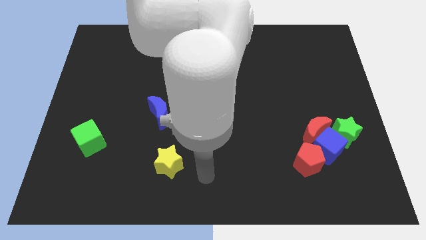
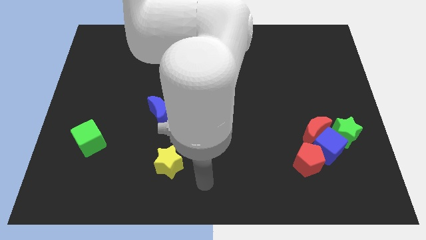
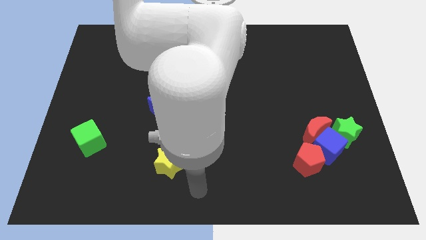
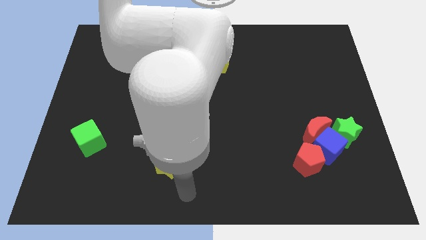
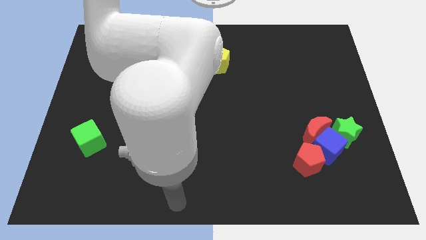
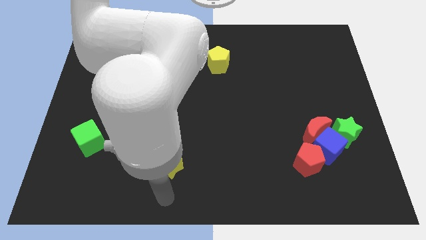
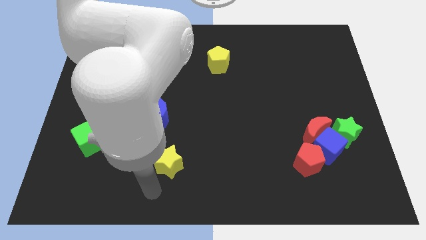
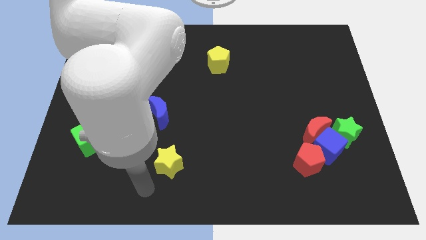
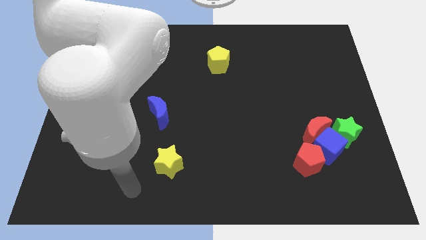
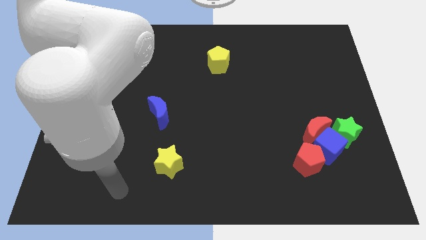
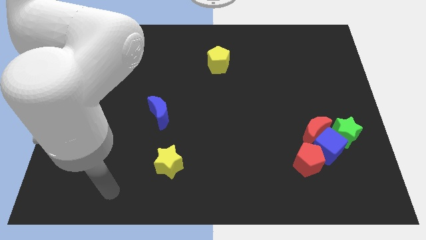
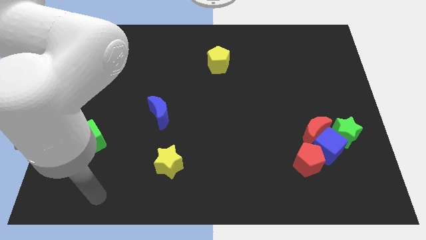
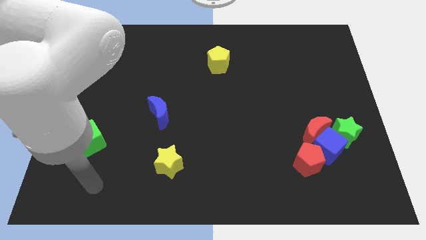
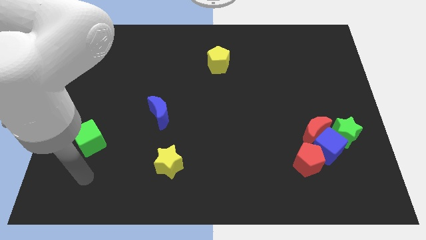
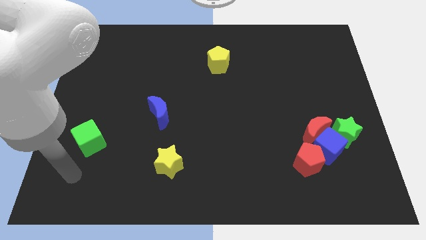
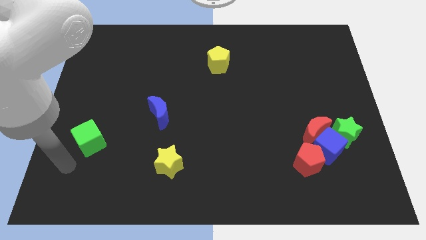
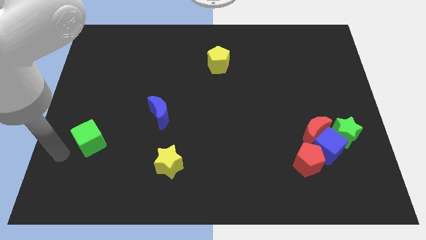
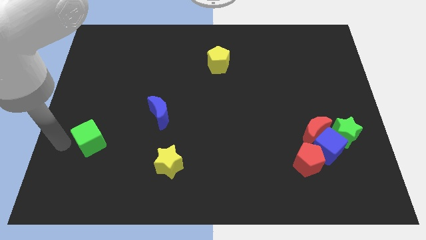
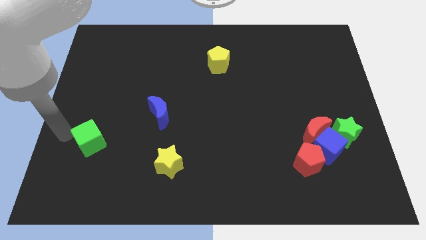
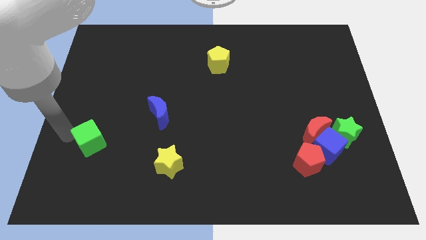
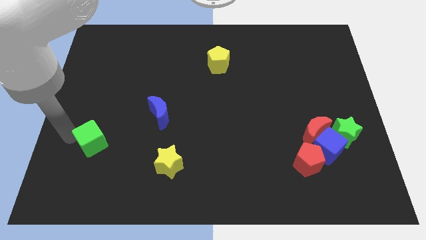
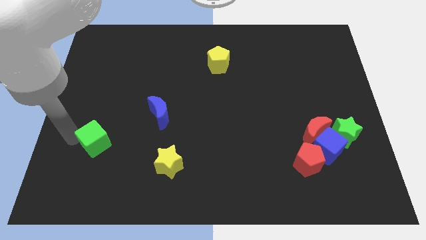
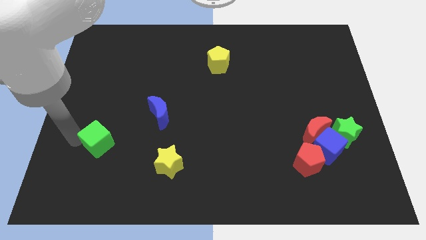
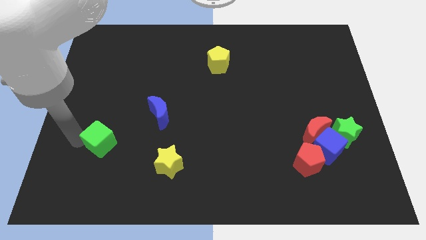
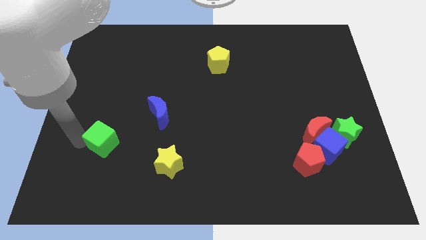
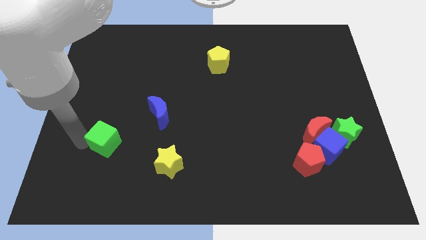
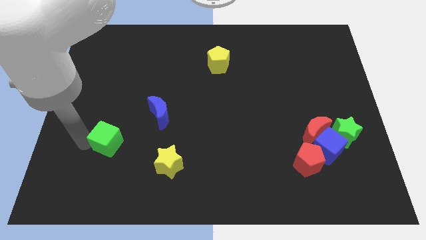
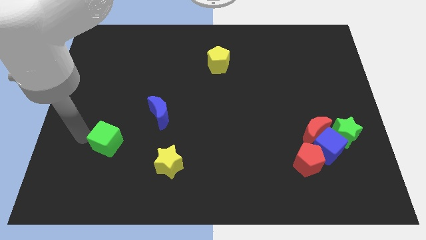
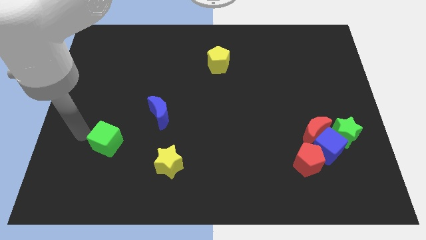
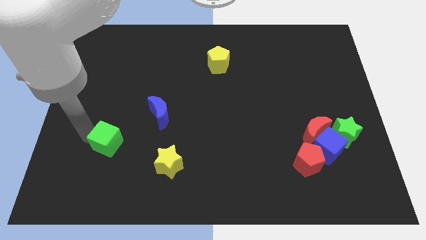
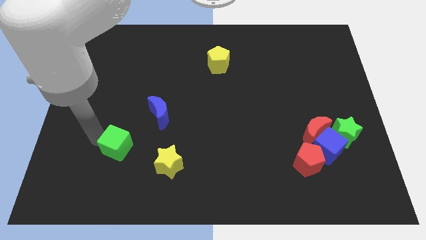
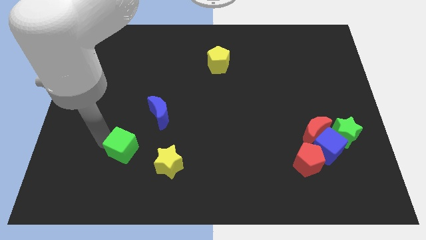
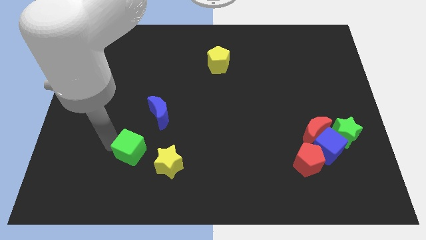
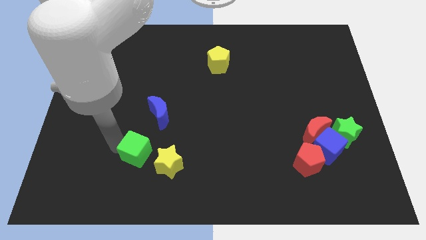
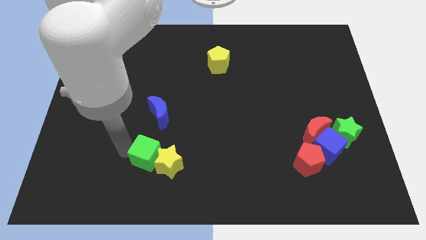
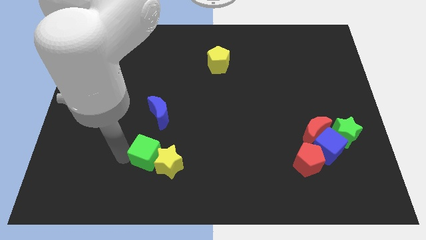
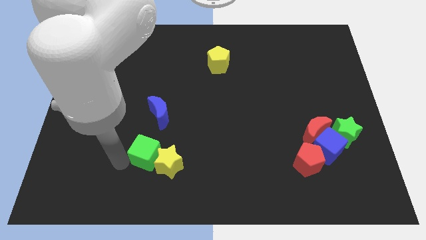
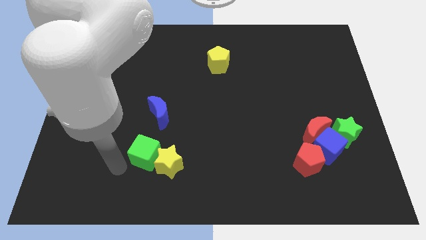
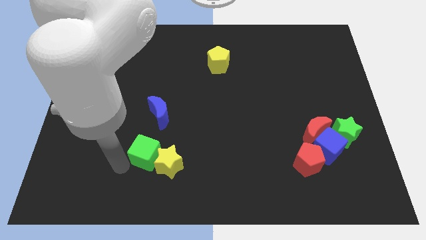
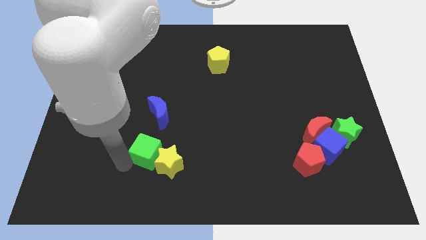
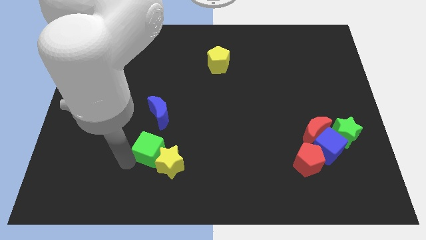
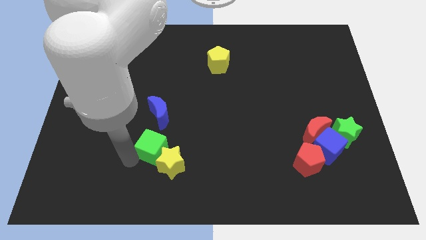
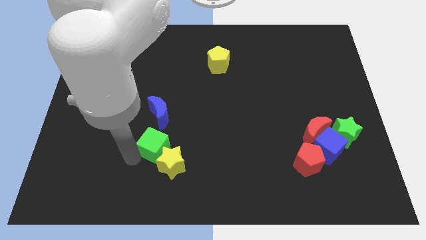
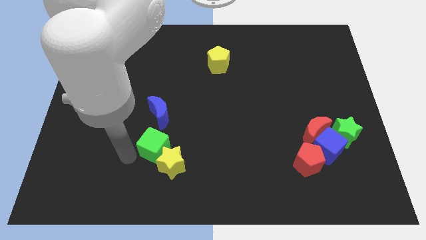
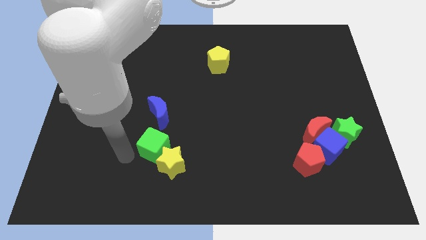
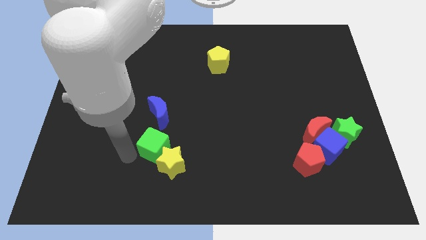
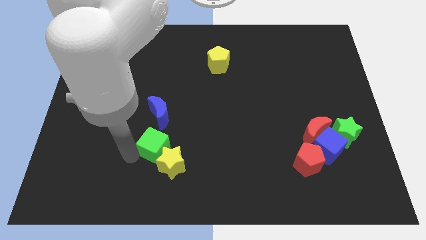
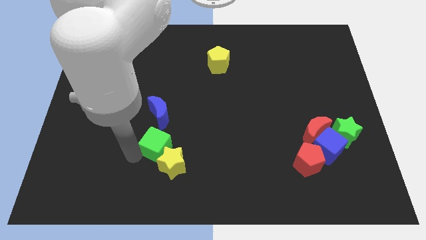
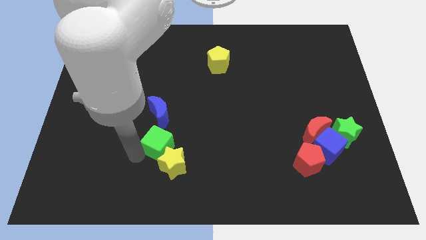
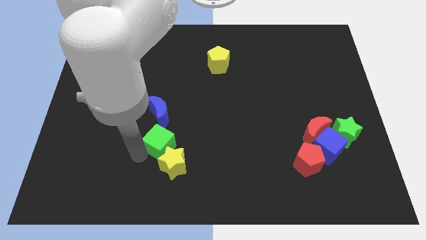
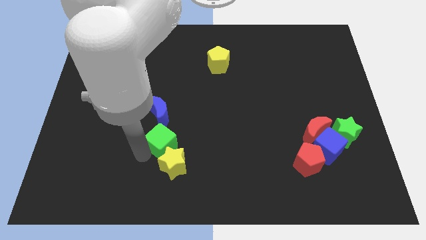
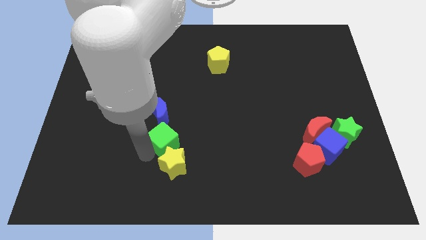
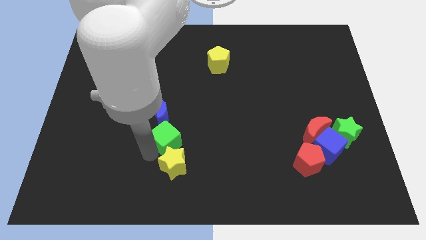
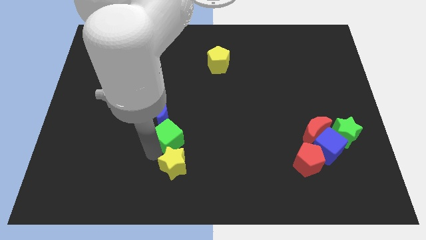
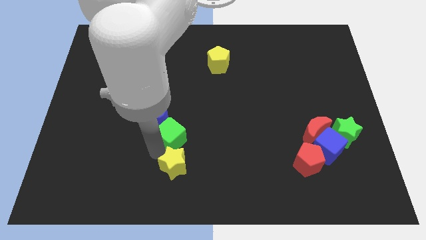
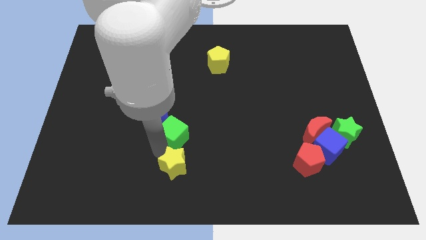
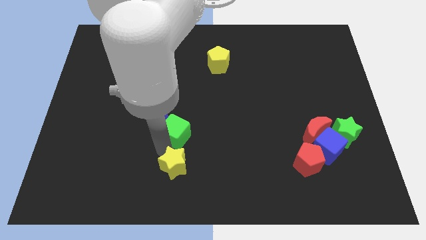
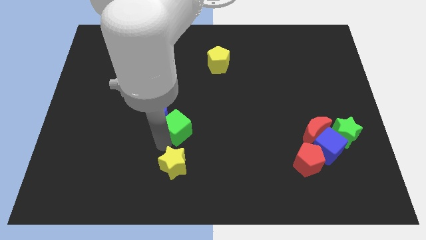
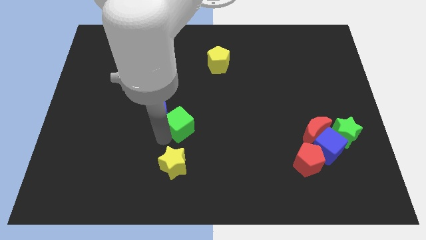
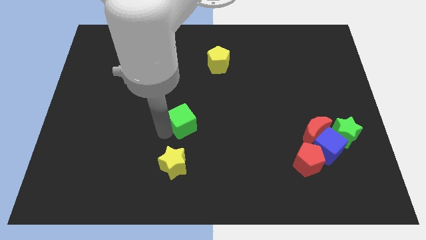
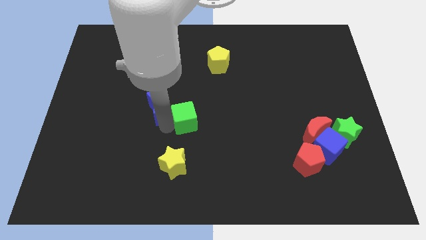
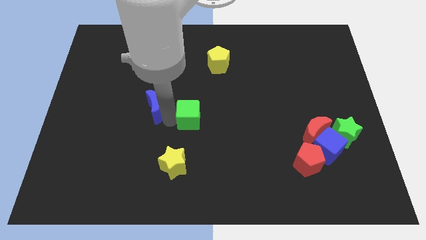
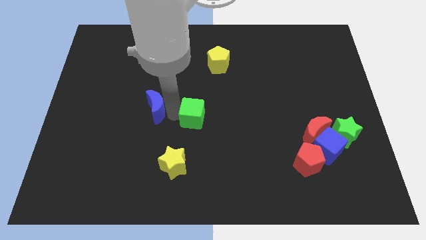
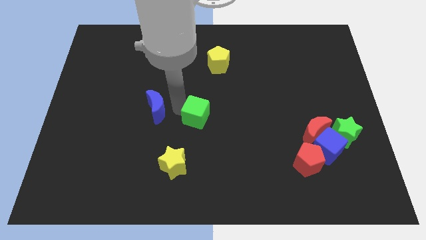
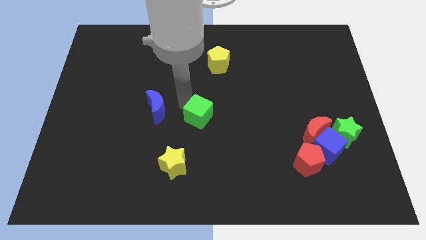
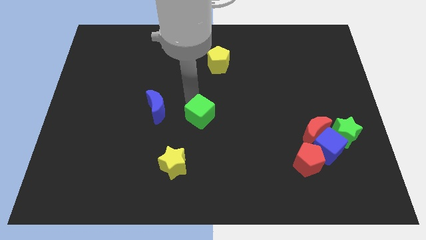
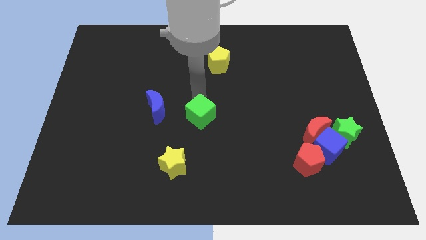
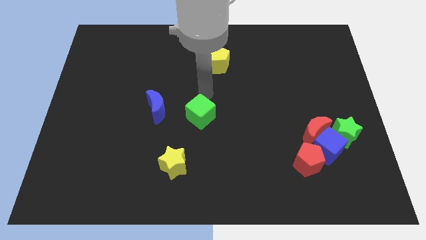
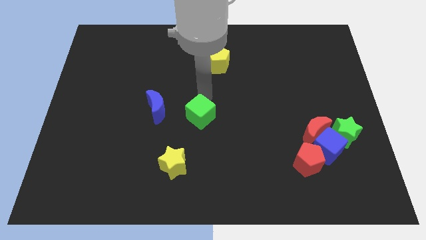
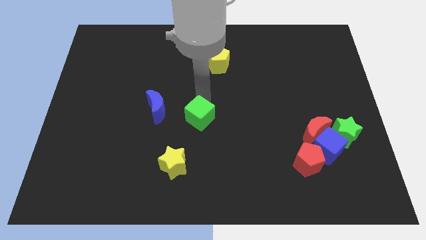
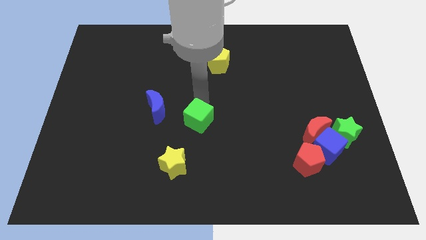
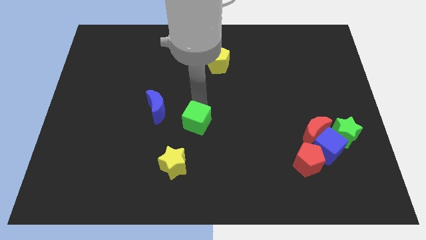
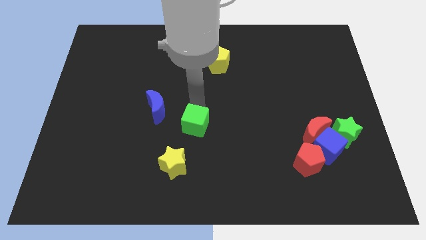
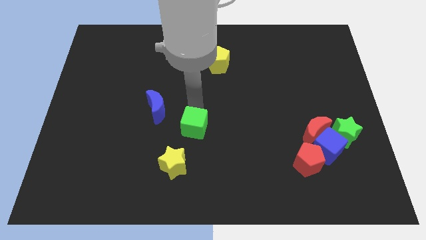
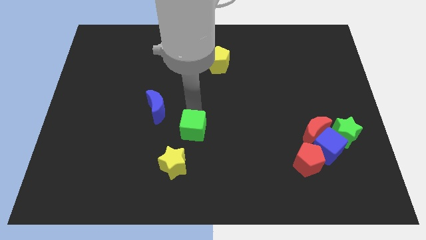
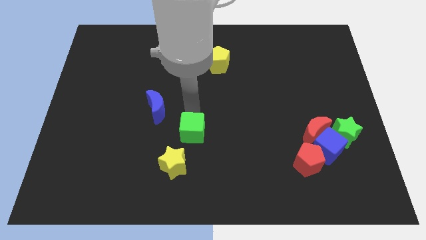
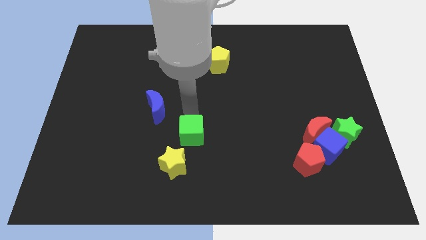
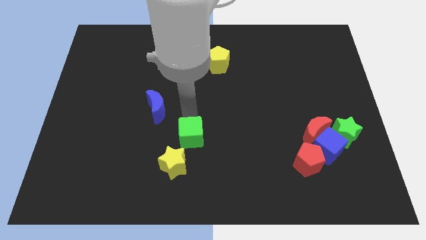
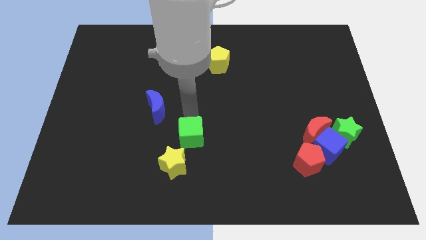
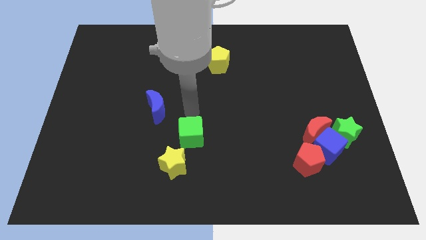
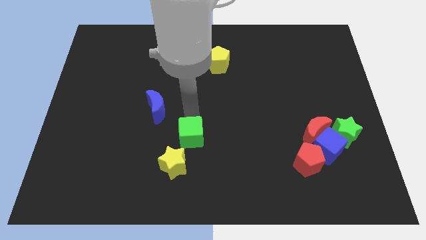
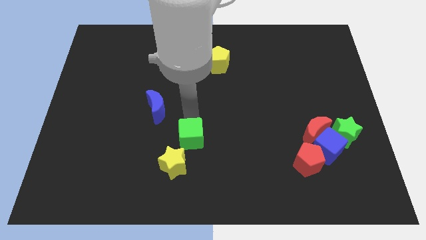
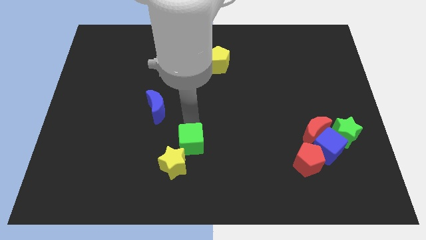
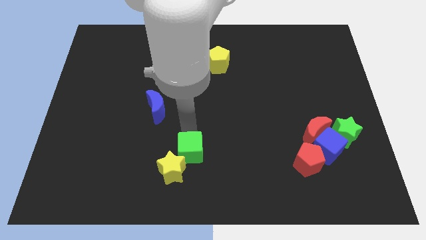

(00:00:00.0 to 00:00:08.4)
put the green cube right of the yellow star
